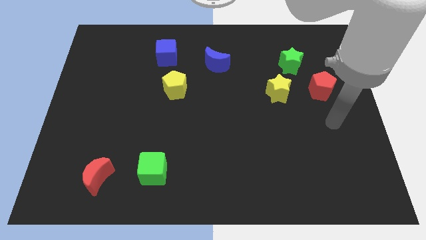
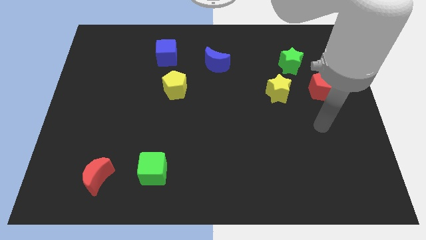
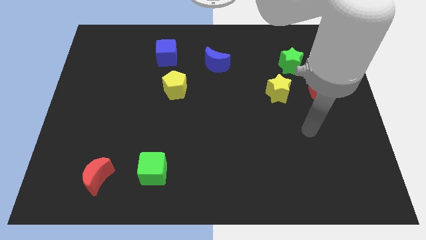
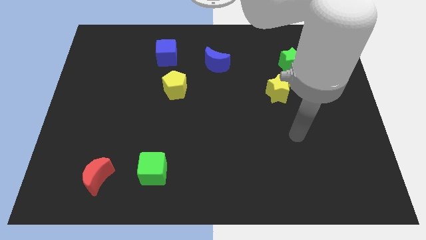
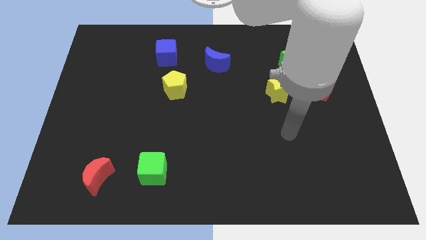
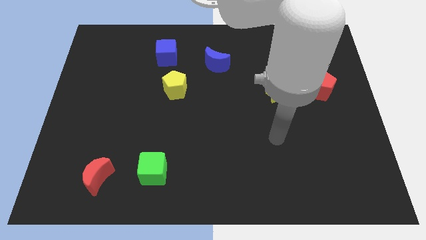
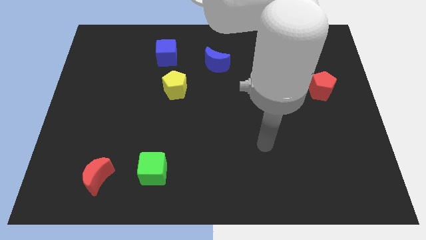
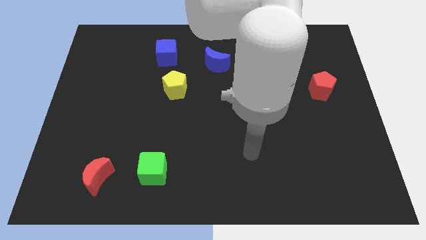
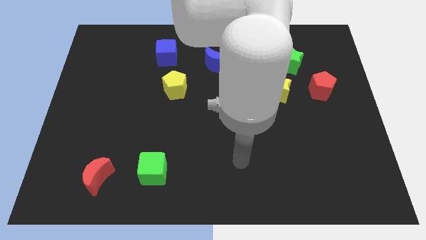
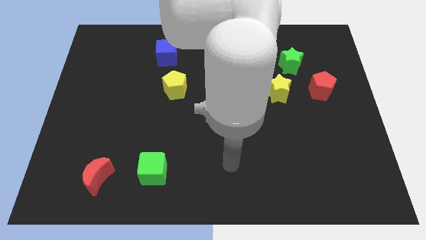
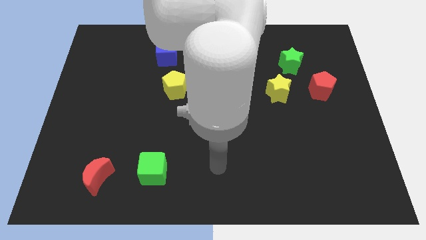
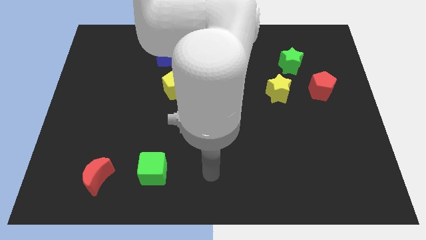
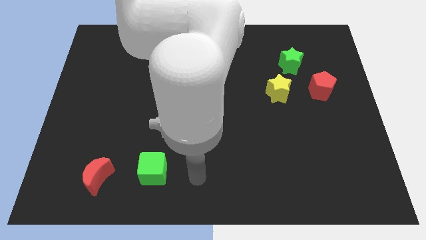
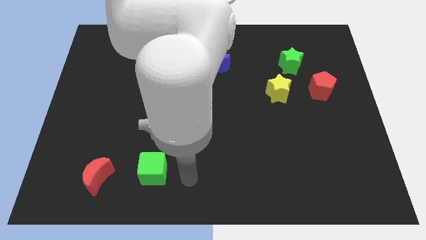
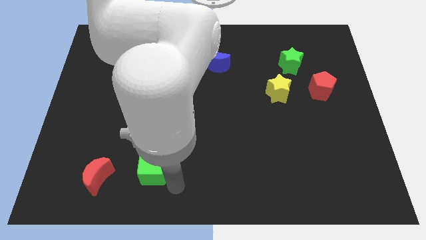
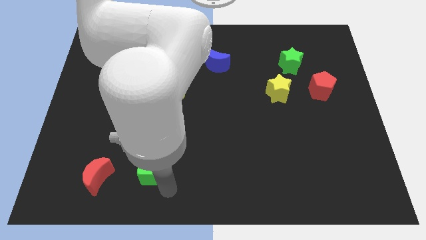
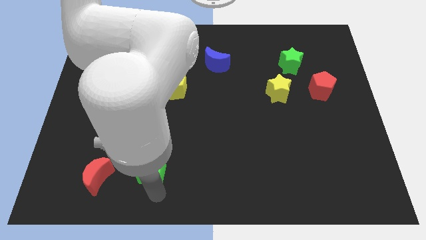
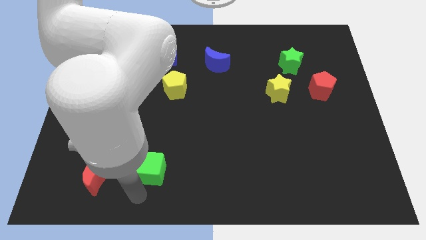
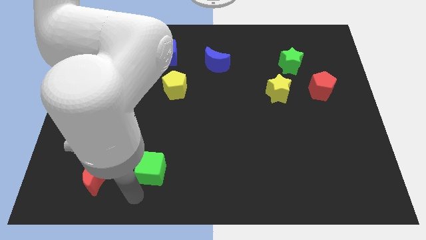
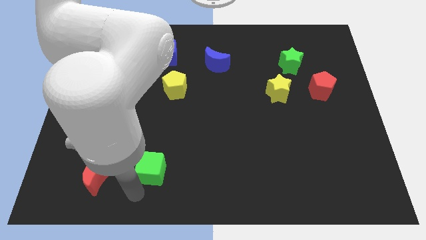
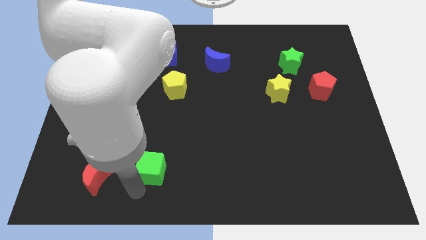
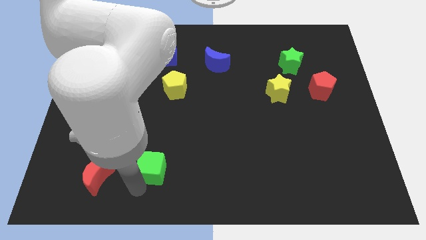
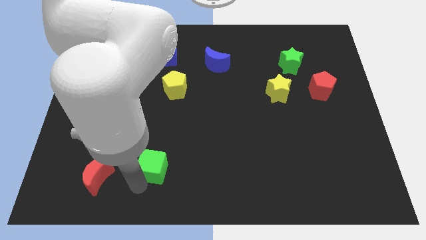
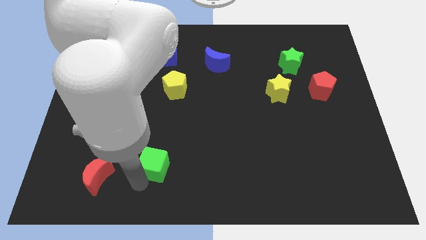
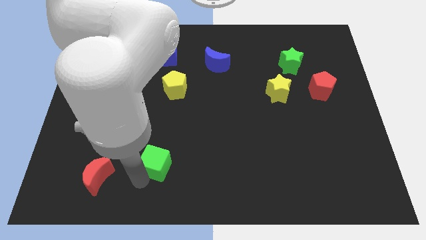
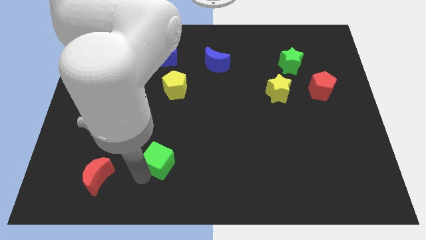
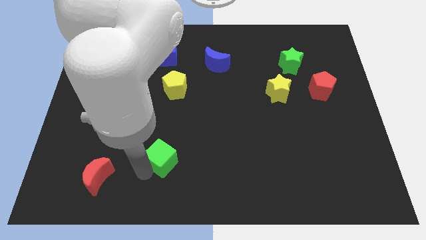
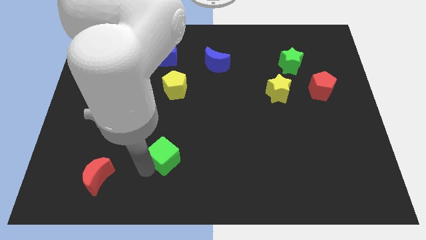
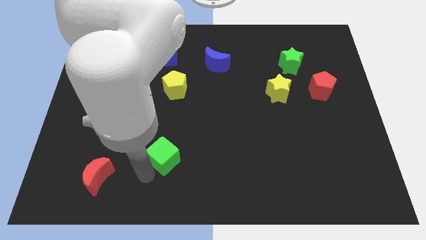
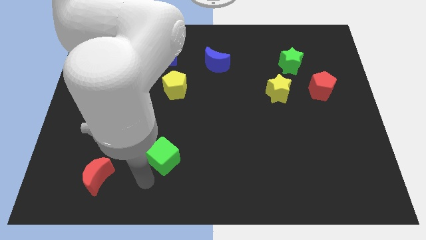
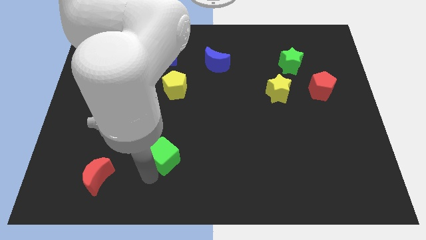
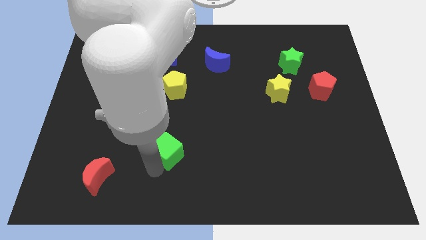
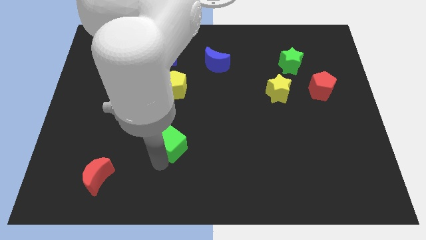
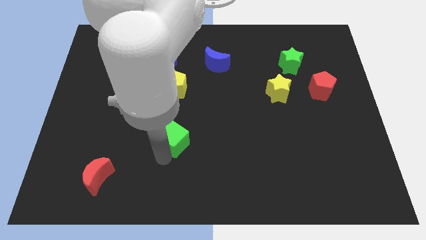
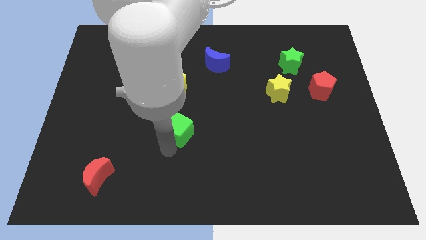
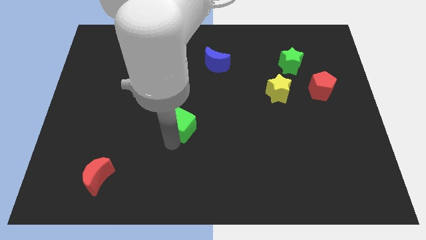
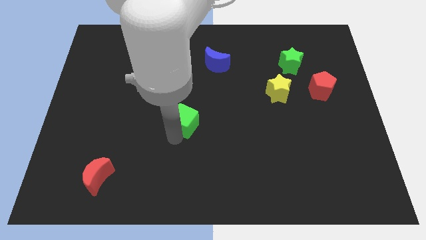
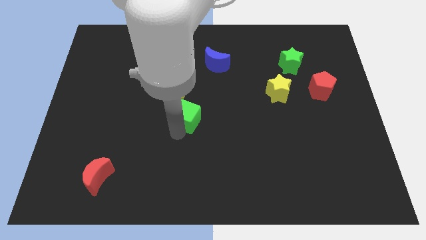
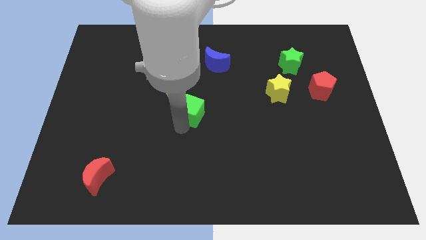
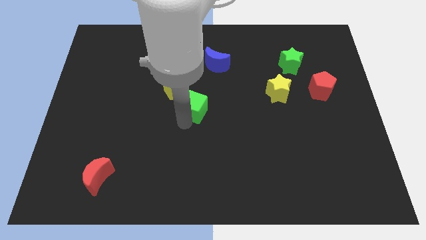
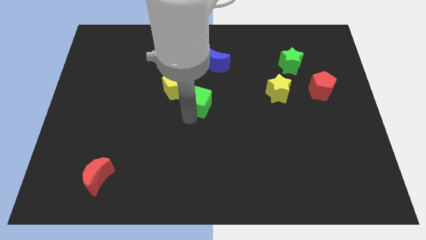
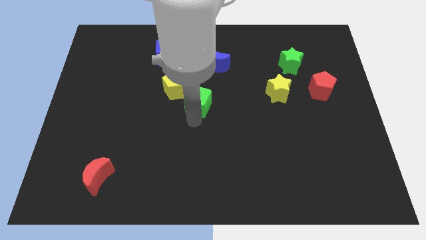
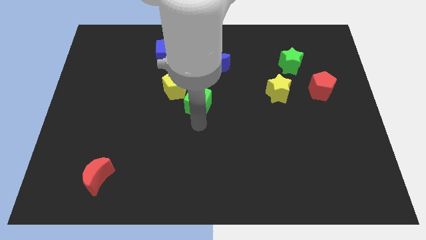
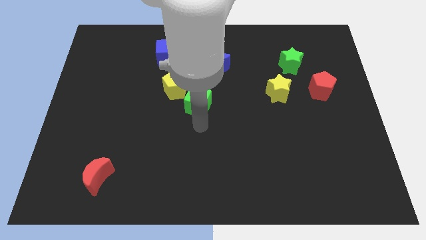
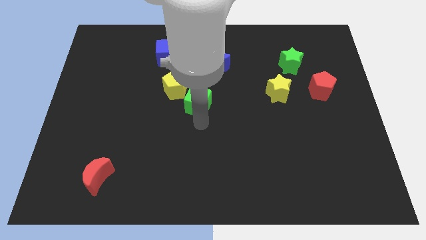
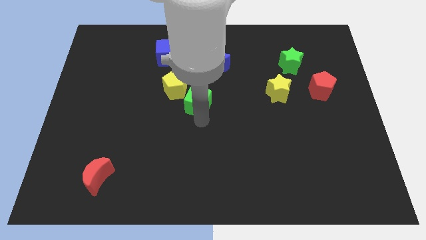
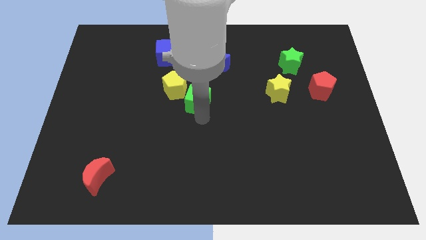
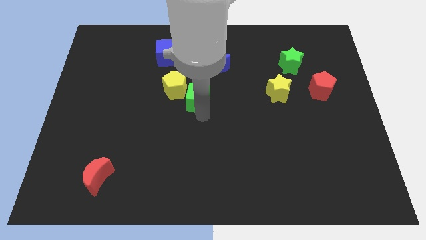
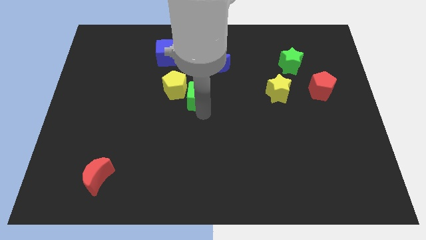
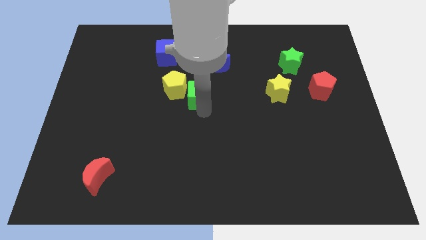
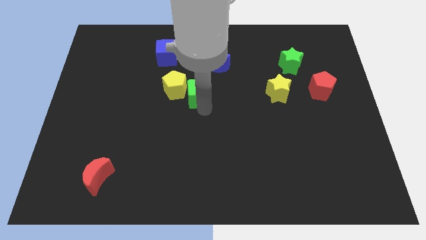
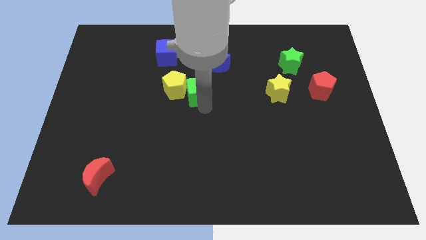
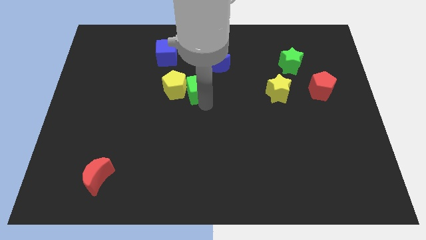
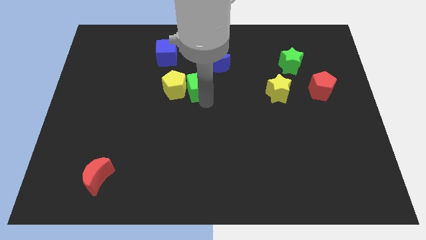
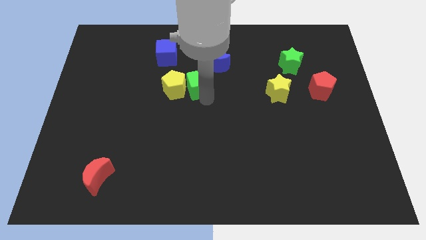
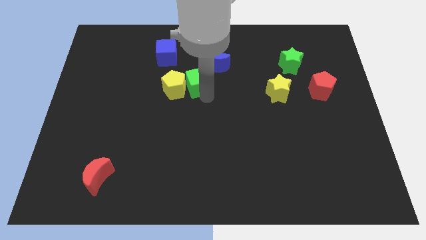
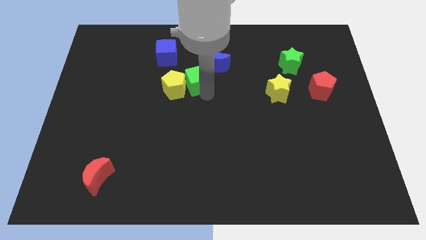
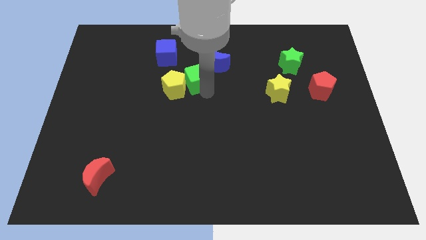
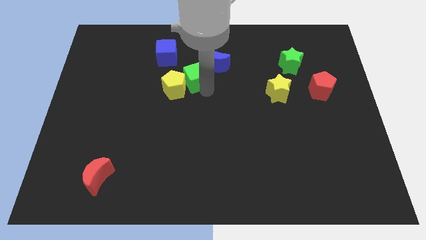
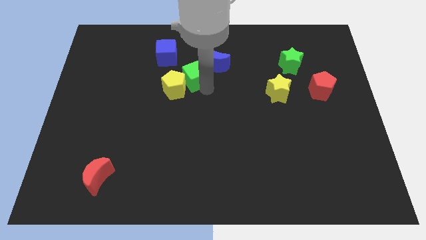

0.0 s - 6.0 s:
move the green cube just left of the blue moon

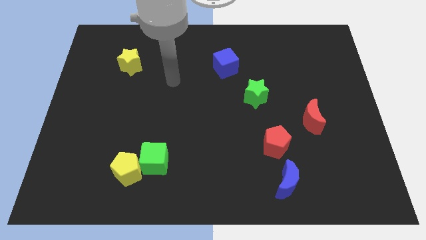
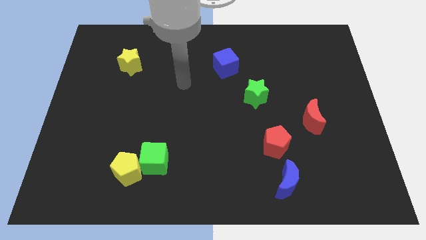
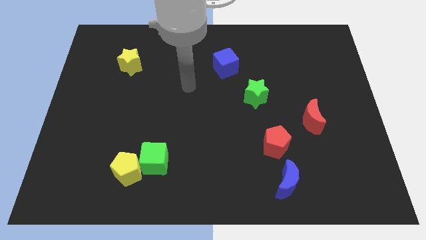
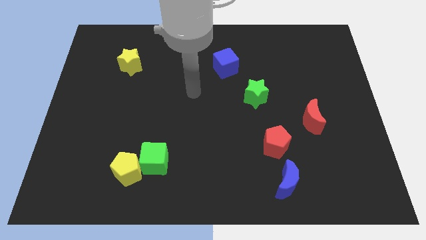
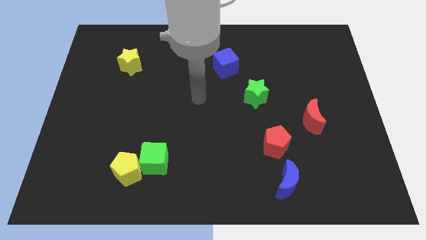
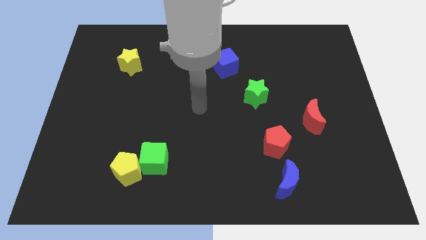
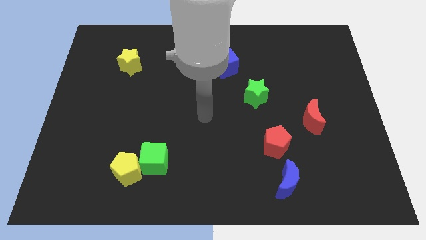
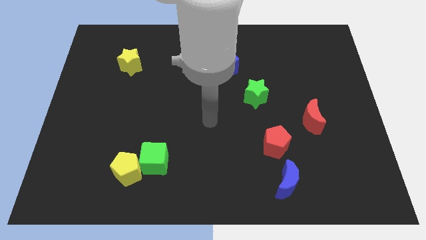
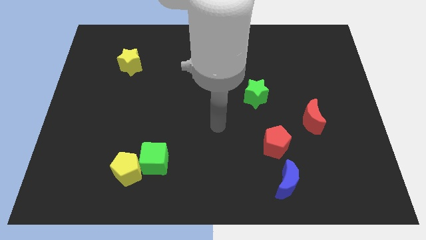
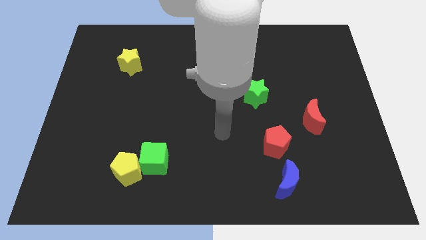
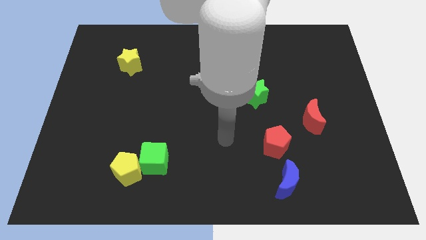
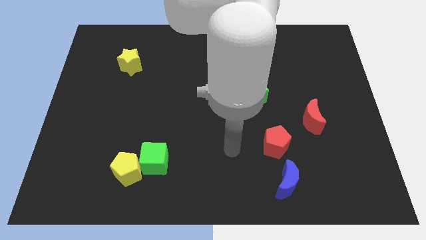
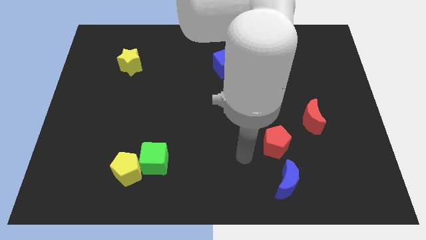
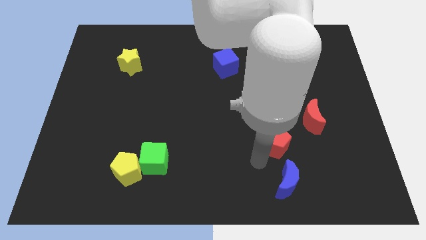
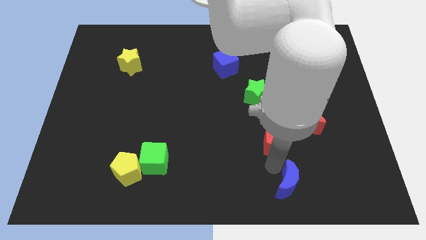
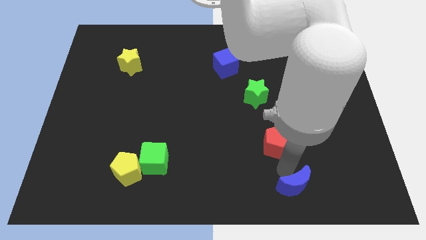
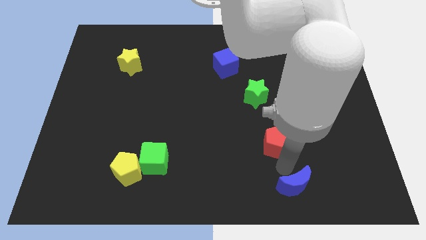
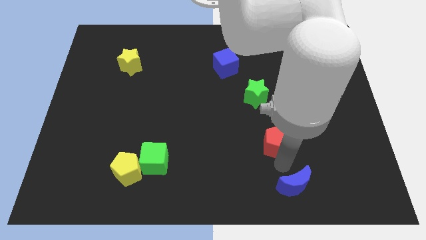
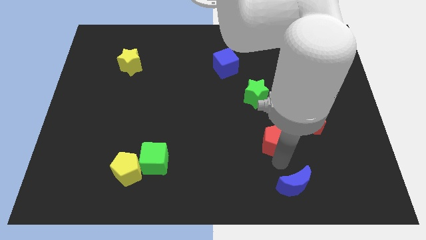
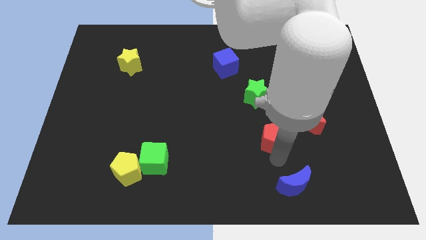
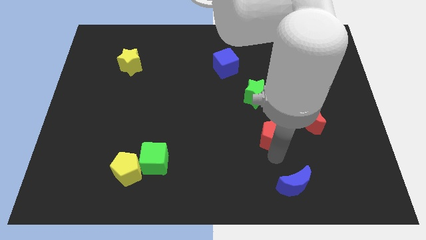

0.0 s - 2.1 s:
move the red pentagon to the left side of the red moon
